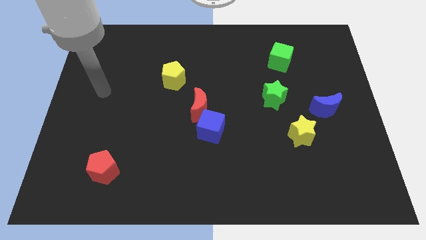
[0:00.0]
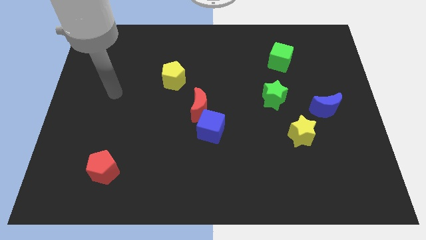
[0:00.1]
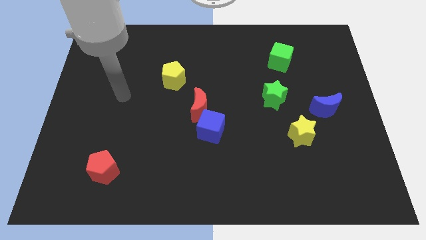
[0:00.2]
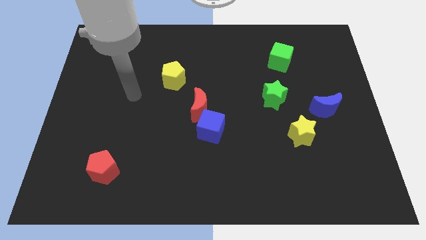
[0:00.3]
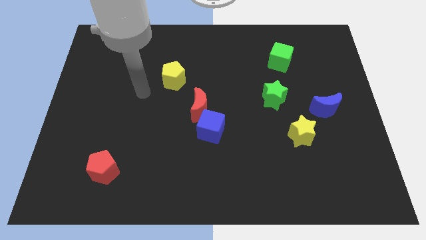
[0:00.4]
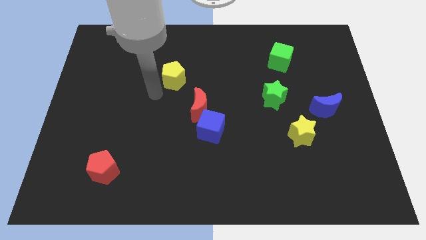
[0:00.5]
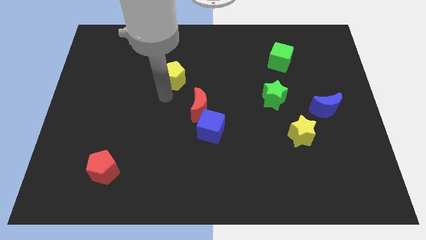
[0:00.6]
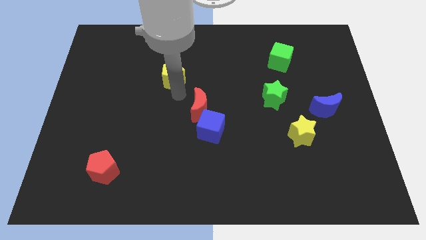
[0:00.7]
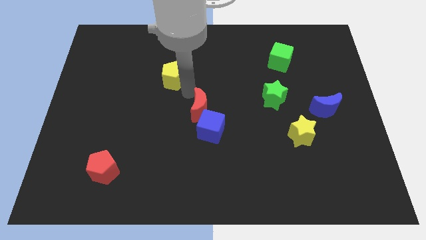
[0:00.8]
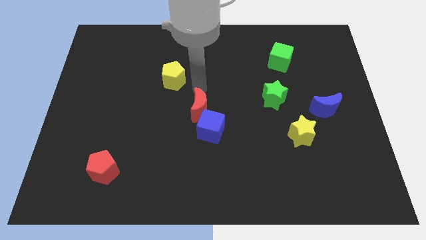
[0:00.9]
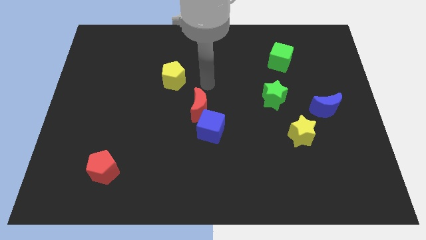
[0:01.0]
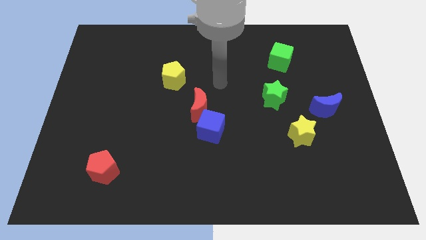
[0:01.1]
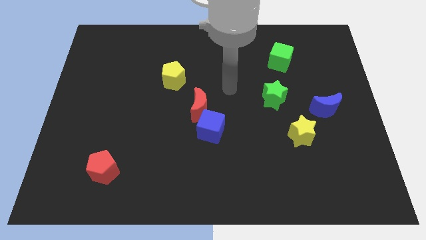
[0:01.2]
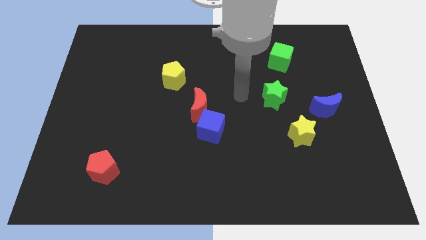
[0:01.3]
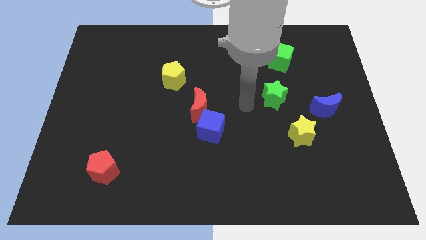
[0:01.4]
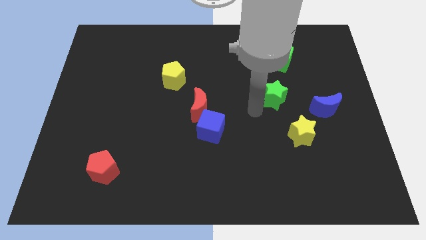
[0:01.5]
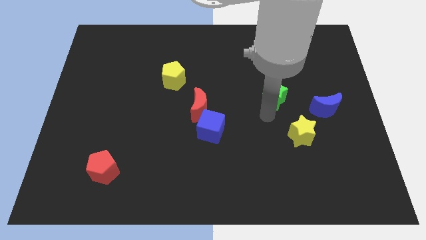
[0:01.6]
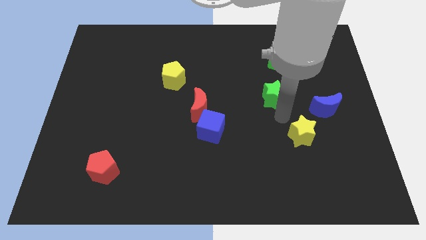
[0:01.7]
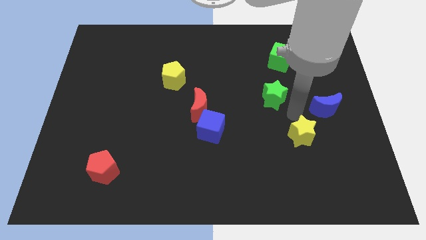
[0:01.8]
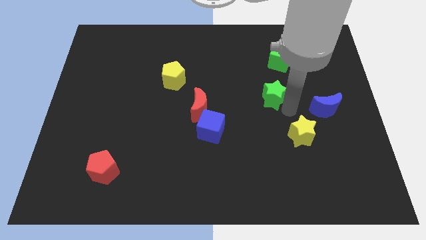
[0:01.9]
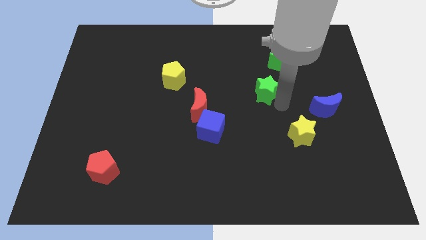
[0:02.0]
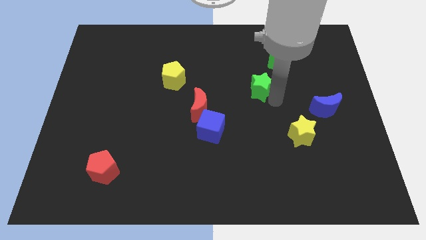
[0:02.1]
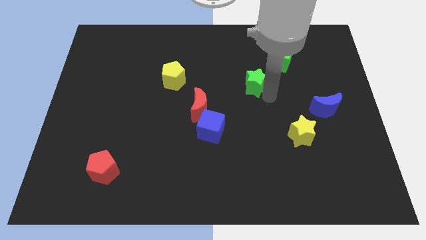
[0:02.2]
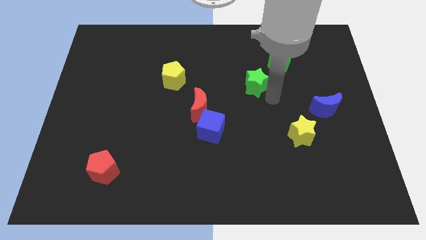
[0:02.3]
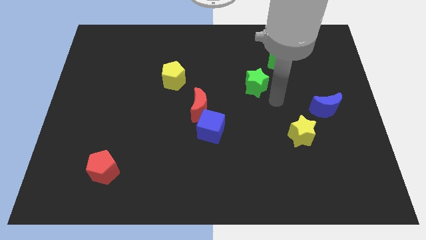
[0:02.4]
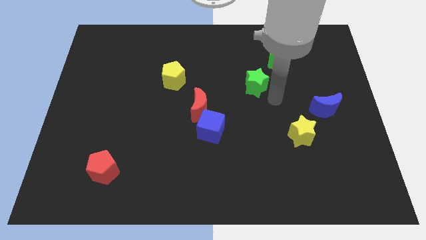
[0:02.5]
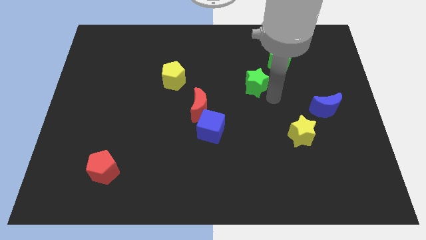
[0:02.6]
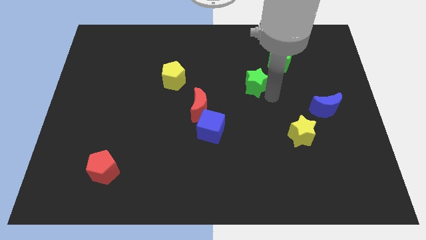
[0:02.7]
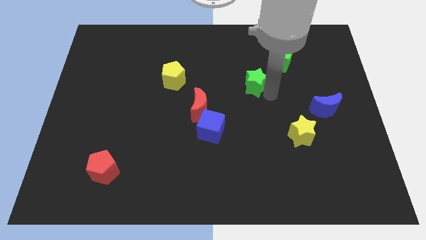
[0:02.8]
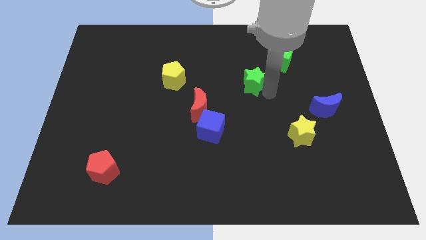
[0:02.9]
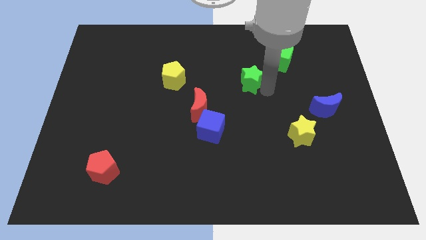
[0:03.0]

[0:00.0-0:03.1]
push the green star a little upwards and then to the left

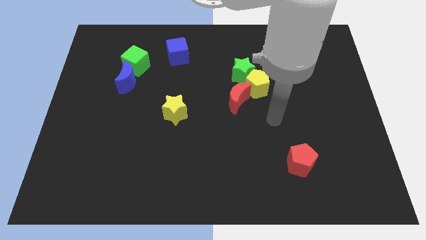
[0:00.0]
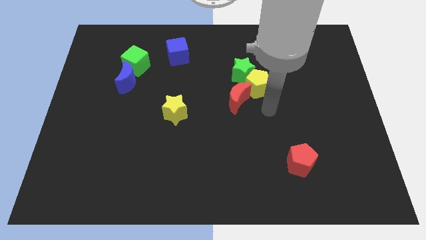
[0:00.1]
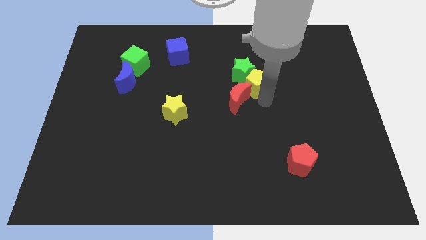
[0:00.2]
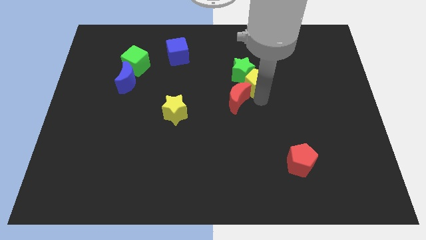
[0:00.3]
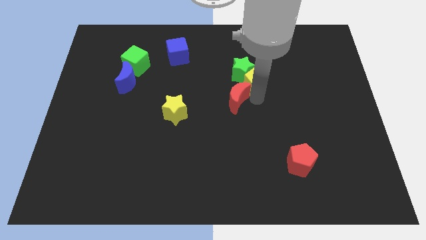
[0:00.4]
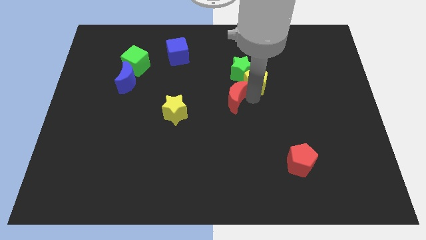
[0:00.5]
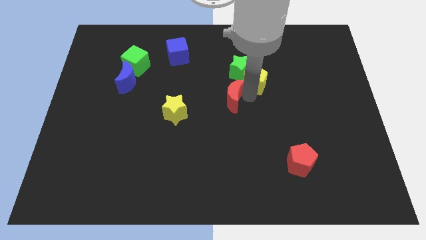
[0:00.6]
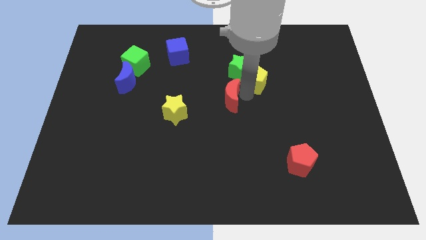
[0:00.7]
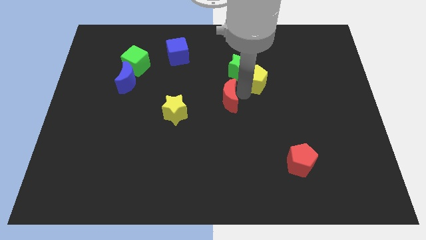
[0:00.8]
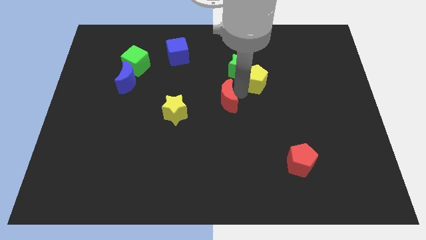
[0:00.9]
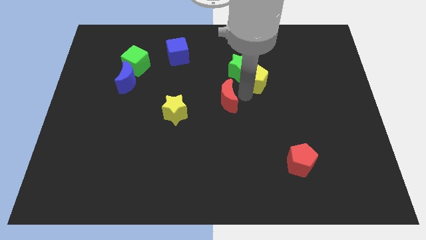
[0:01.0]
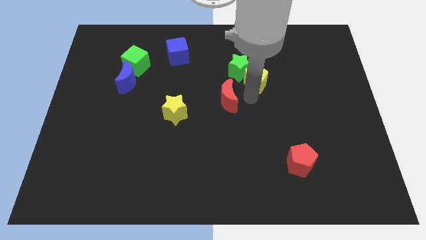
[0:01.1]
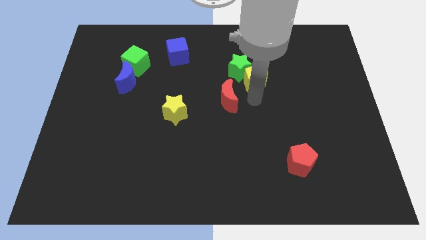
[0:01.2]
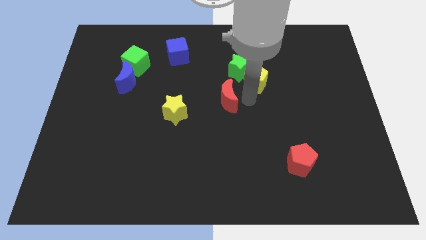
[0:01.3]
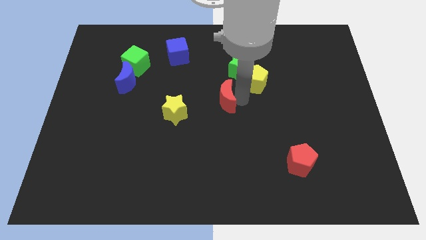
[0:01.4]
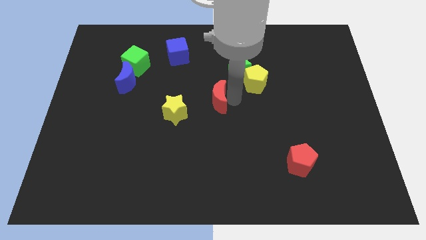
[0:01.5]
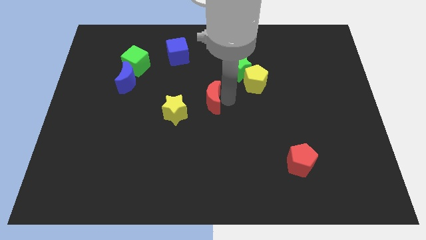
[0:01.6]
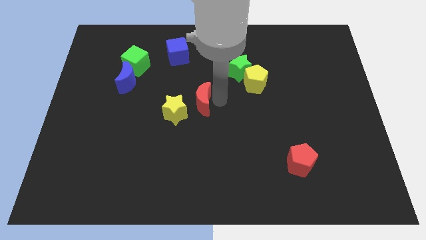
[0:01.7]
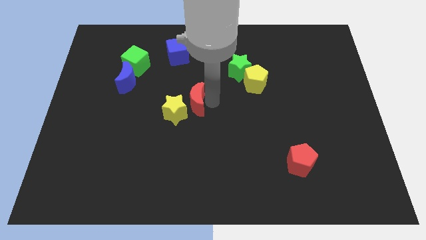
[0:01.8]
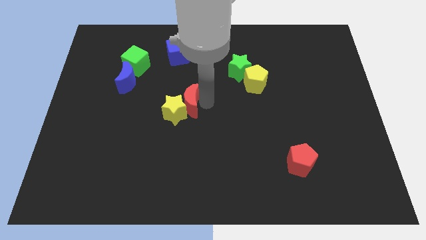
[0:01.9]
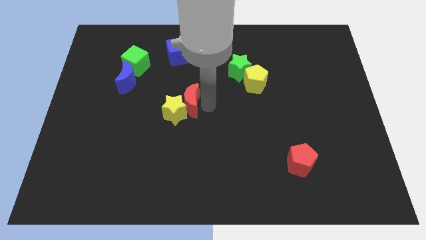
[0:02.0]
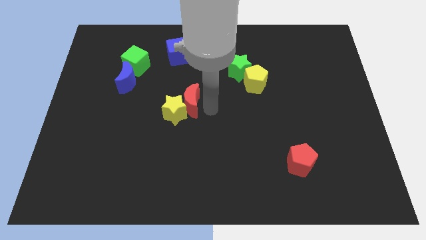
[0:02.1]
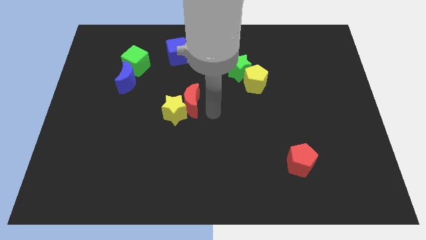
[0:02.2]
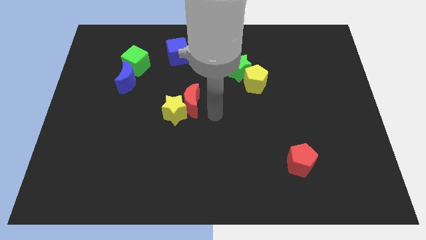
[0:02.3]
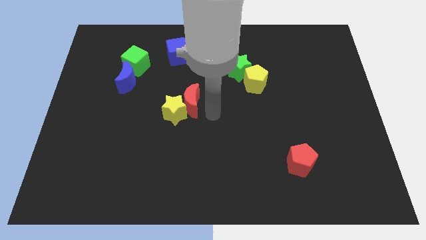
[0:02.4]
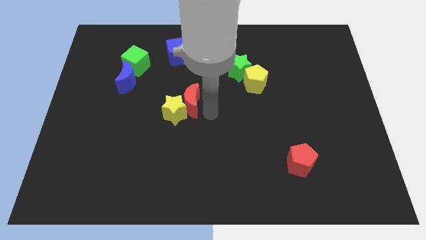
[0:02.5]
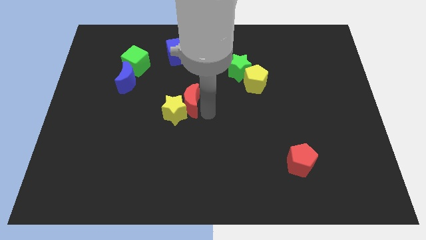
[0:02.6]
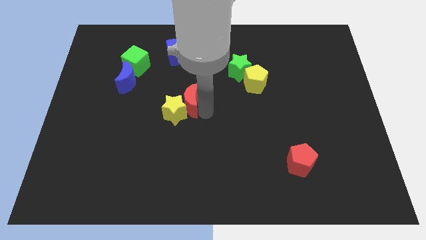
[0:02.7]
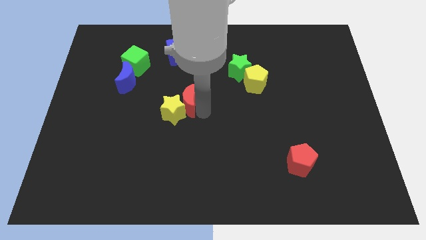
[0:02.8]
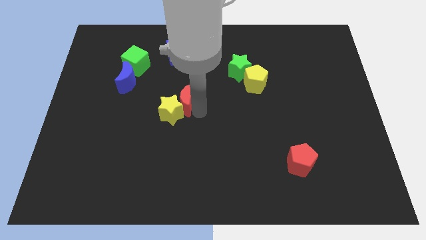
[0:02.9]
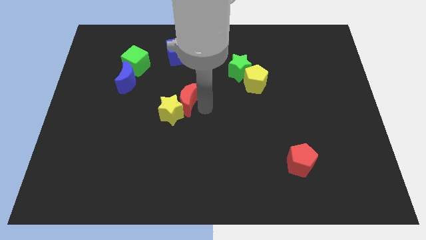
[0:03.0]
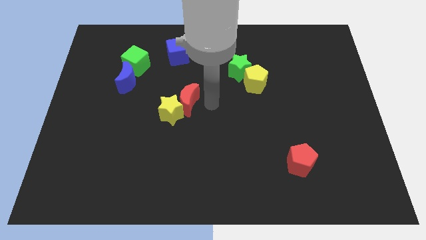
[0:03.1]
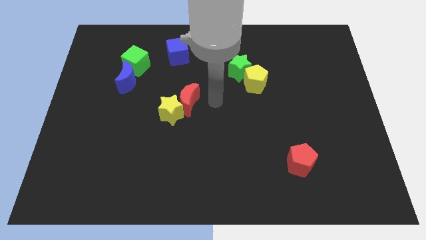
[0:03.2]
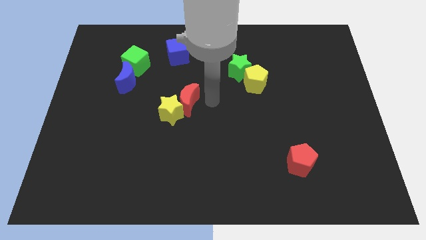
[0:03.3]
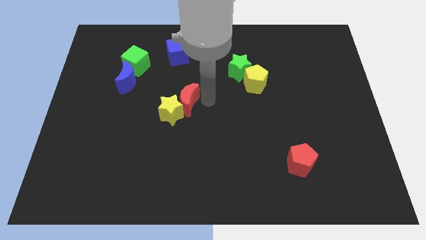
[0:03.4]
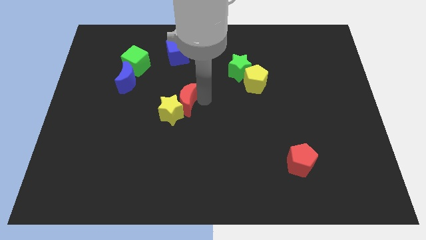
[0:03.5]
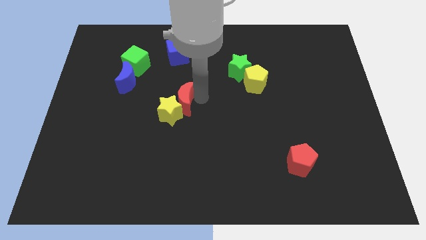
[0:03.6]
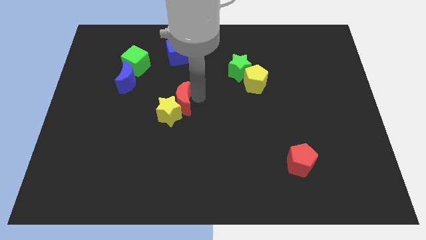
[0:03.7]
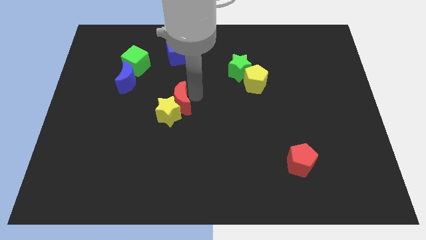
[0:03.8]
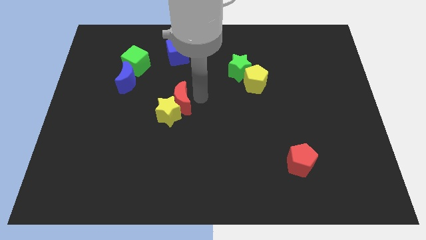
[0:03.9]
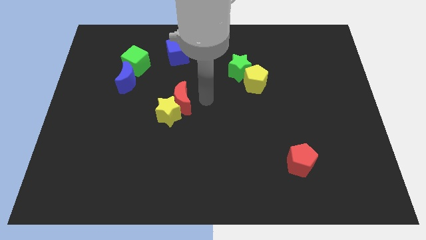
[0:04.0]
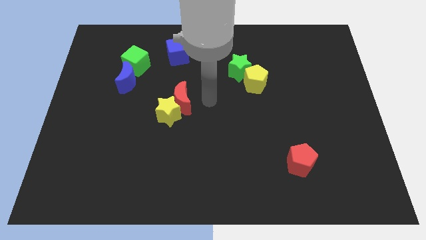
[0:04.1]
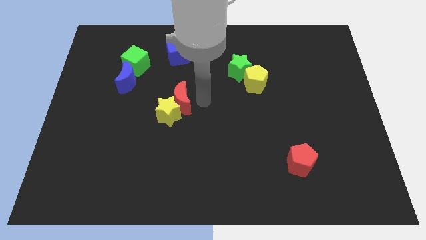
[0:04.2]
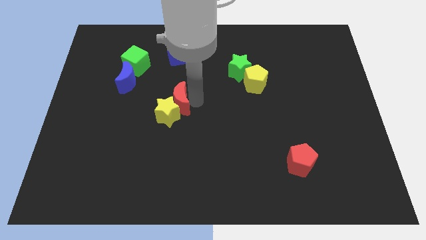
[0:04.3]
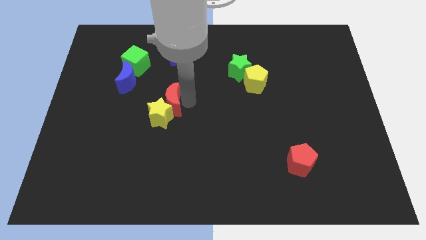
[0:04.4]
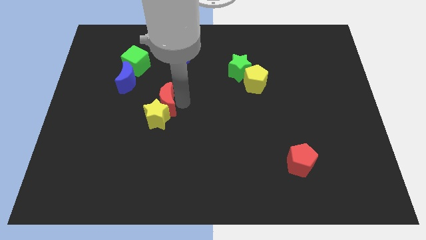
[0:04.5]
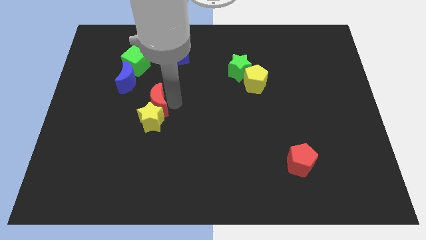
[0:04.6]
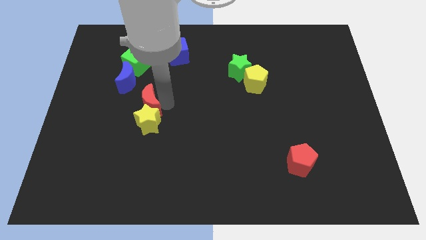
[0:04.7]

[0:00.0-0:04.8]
push the red moon left
